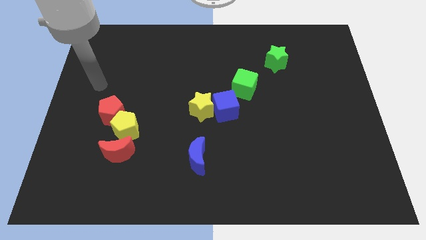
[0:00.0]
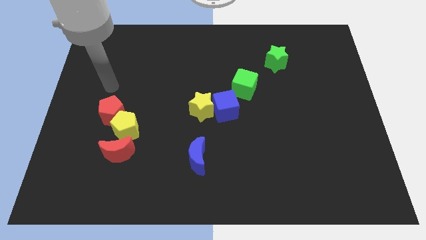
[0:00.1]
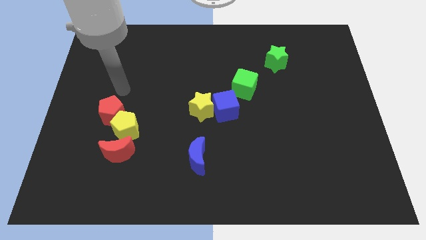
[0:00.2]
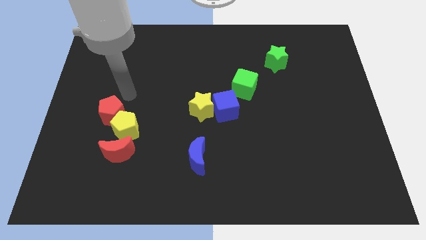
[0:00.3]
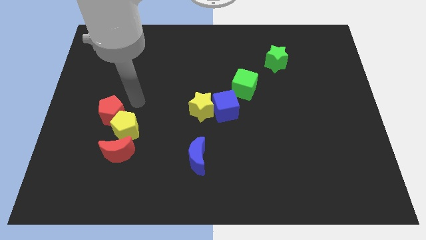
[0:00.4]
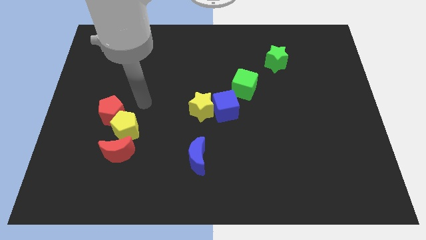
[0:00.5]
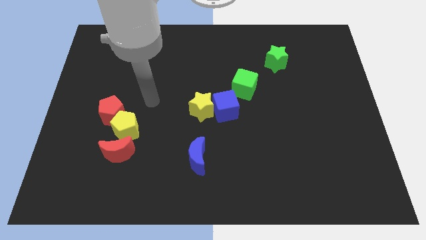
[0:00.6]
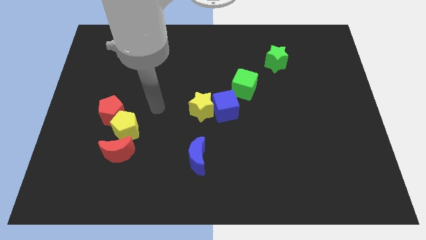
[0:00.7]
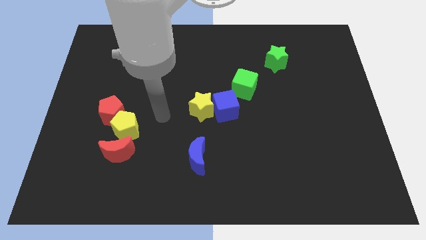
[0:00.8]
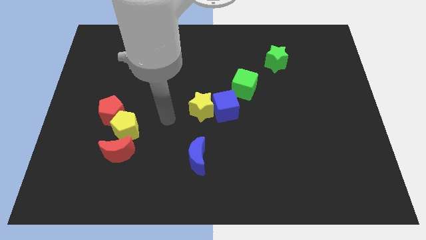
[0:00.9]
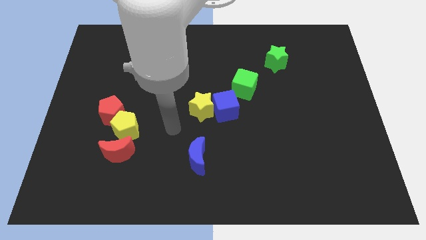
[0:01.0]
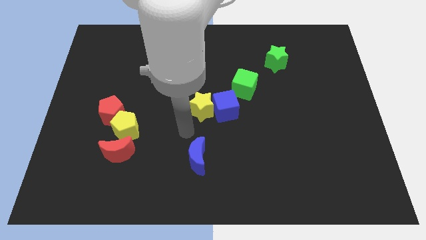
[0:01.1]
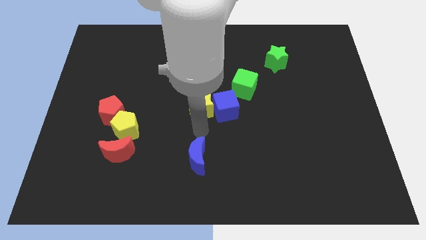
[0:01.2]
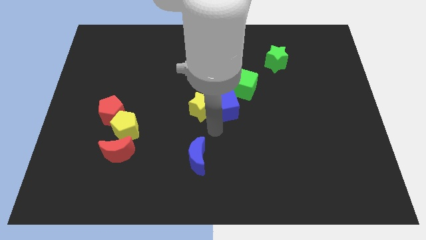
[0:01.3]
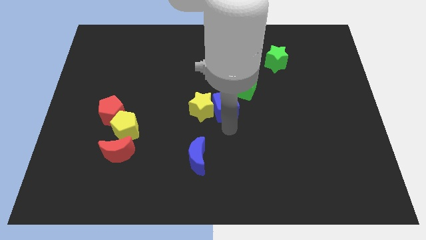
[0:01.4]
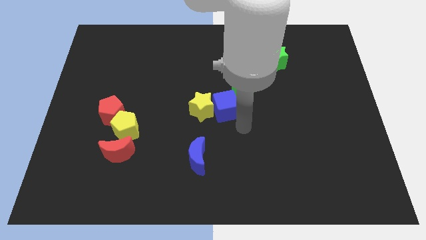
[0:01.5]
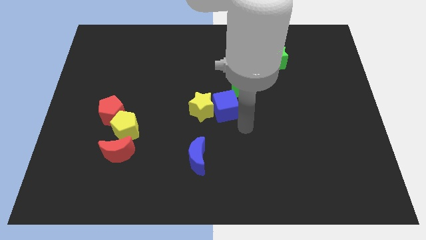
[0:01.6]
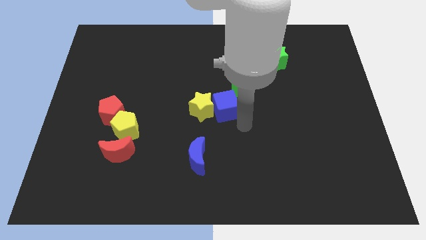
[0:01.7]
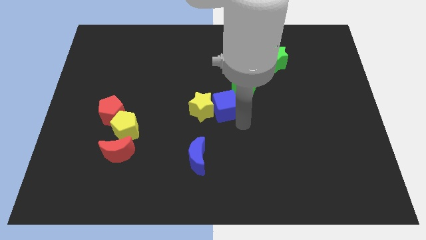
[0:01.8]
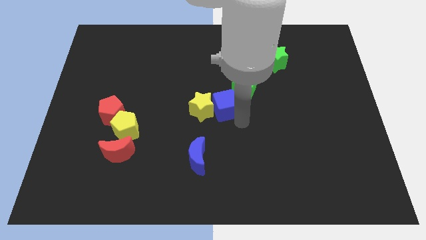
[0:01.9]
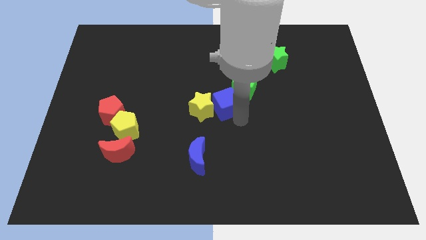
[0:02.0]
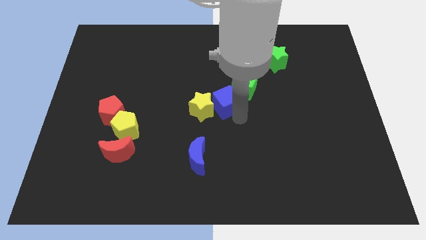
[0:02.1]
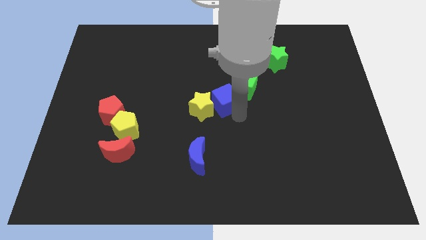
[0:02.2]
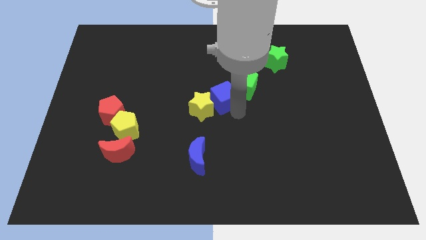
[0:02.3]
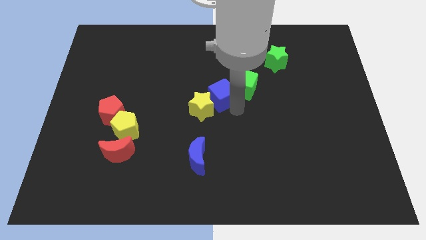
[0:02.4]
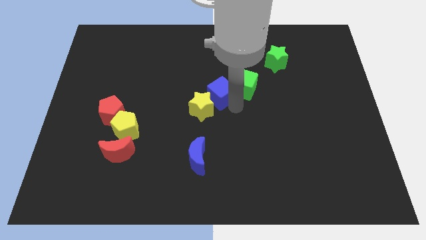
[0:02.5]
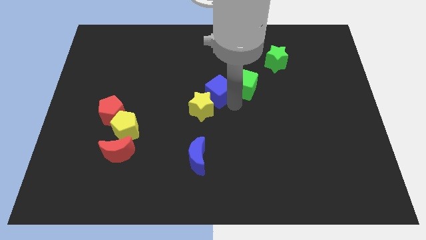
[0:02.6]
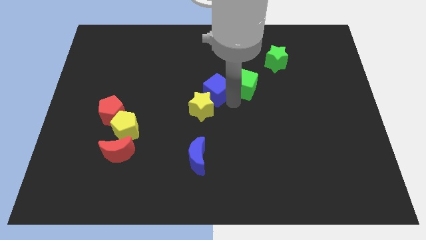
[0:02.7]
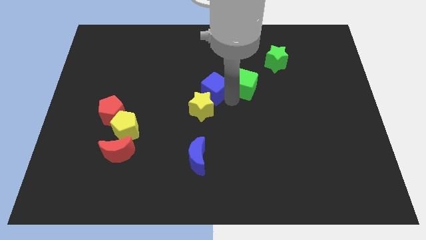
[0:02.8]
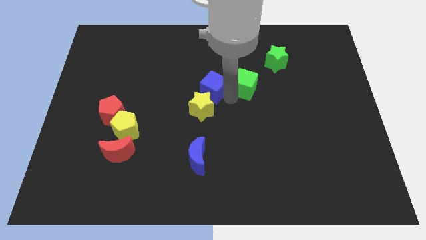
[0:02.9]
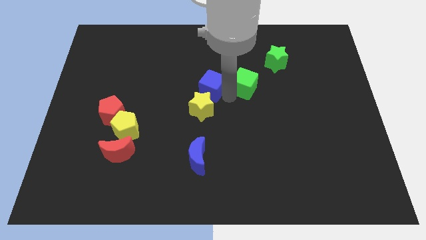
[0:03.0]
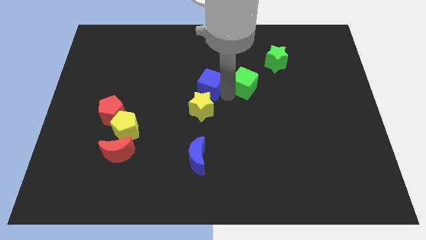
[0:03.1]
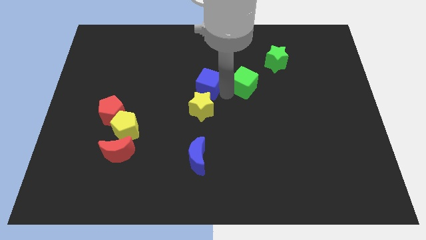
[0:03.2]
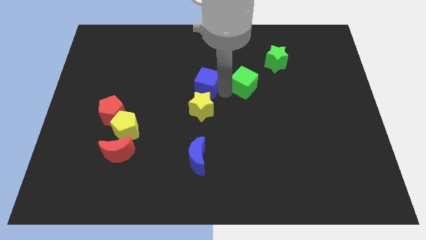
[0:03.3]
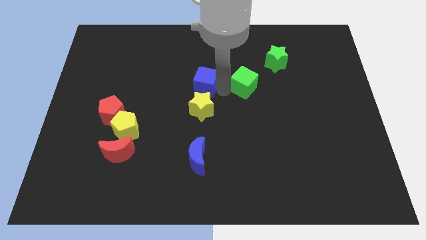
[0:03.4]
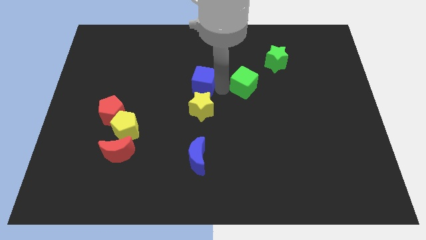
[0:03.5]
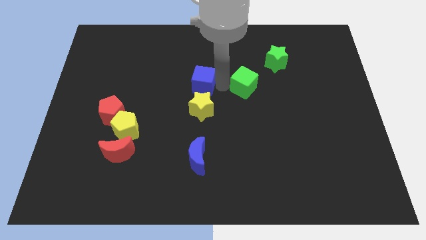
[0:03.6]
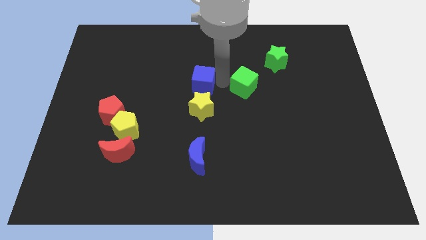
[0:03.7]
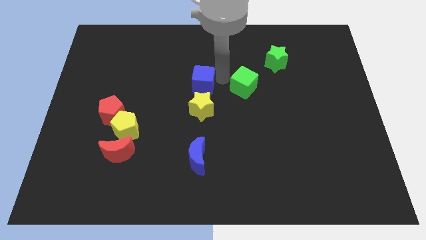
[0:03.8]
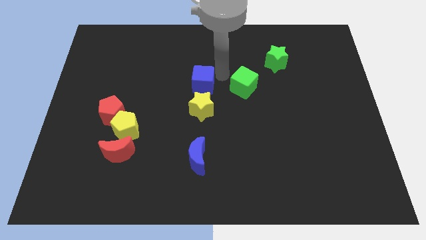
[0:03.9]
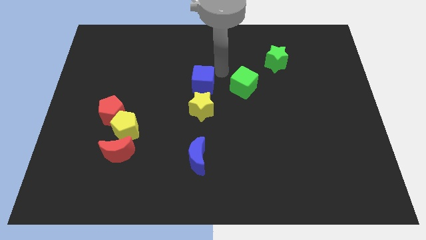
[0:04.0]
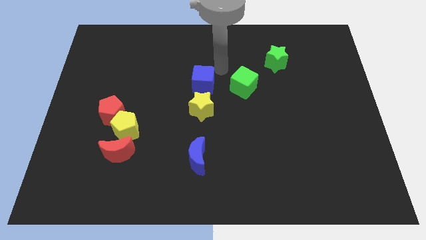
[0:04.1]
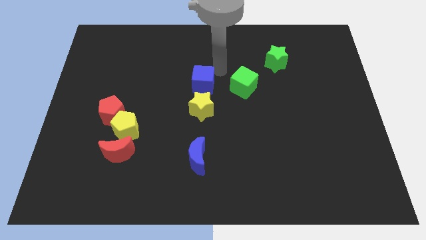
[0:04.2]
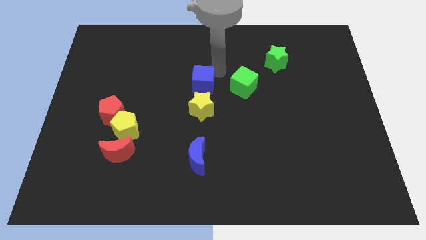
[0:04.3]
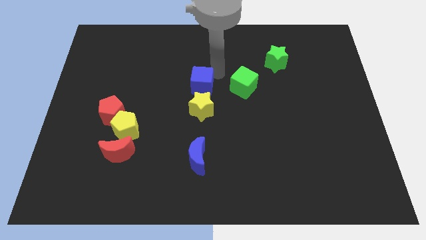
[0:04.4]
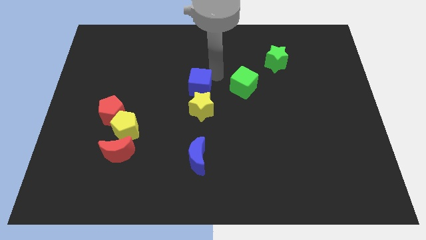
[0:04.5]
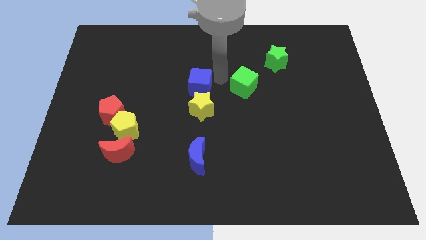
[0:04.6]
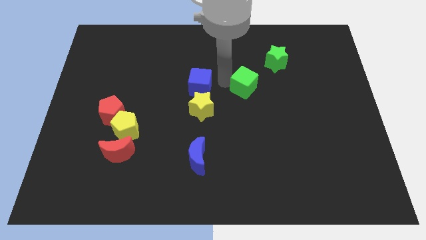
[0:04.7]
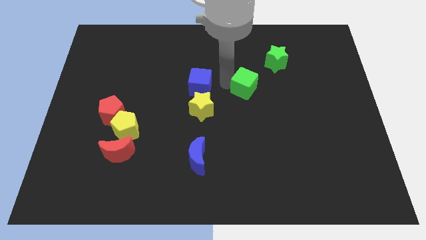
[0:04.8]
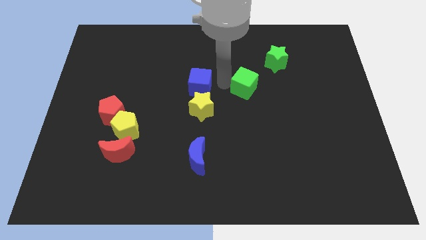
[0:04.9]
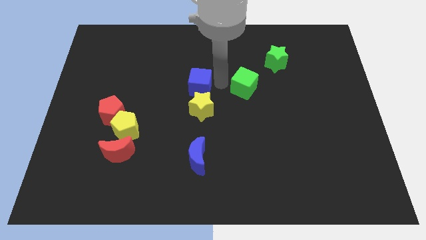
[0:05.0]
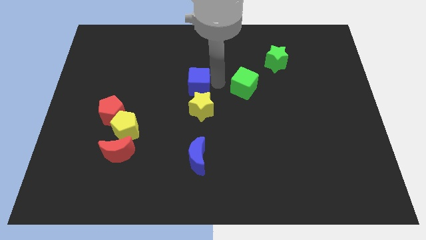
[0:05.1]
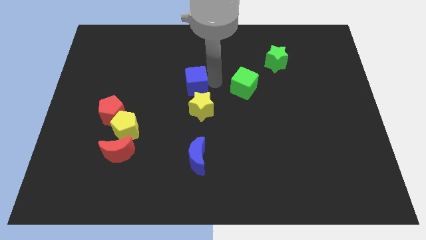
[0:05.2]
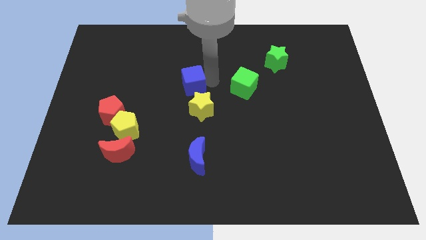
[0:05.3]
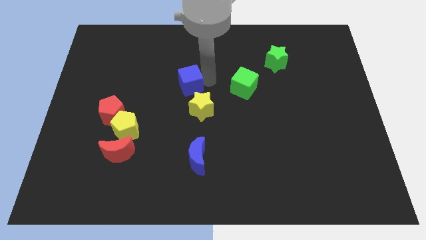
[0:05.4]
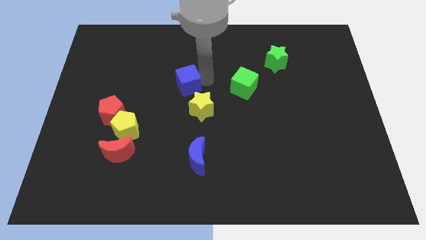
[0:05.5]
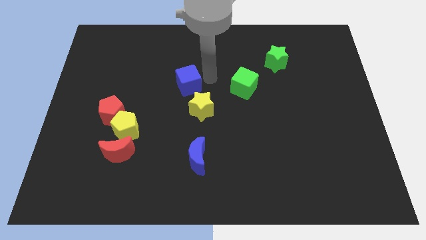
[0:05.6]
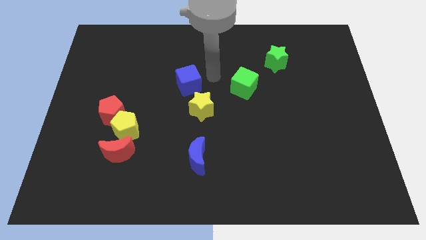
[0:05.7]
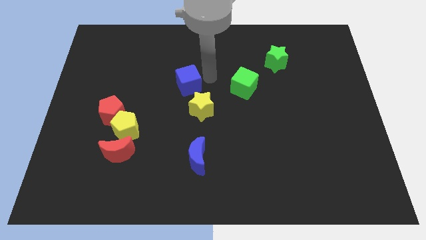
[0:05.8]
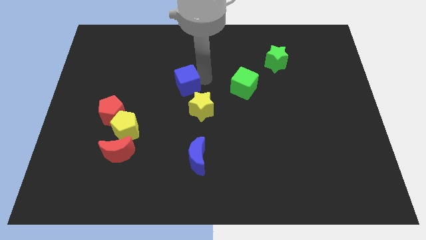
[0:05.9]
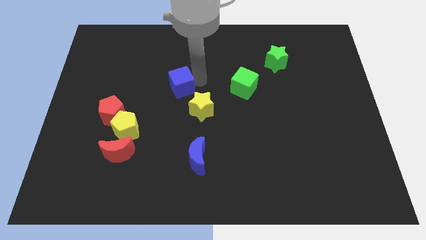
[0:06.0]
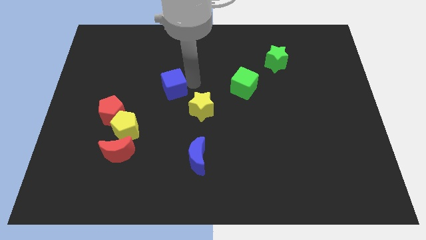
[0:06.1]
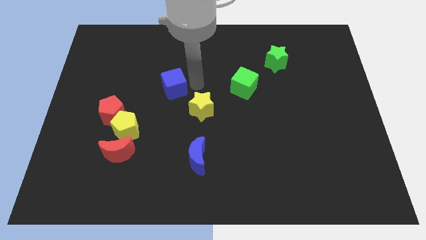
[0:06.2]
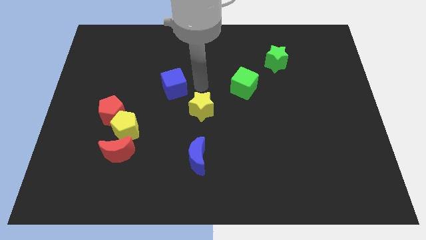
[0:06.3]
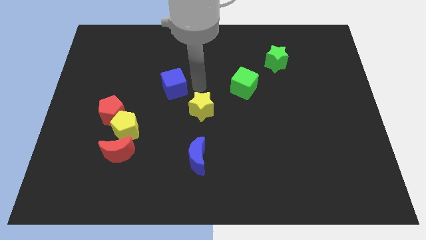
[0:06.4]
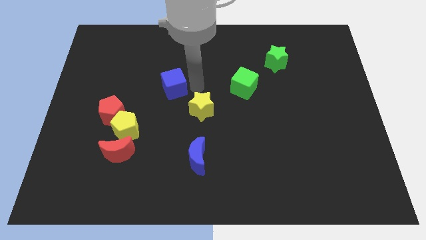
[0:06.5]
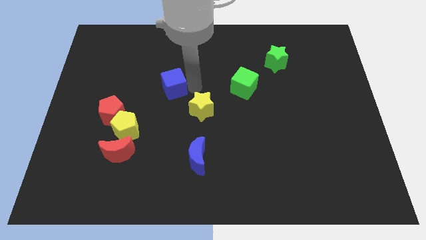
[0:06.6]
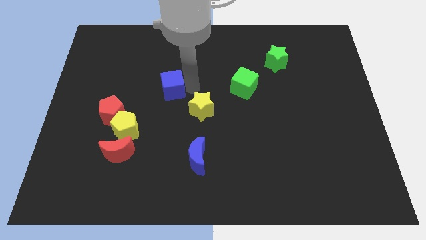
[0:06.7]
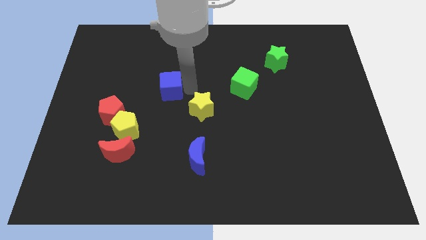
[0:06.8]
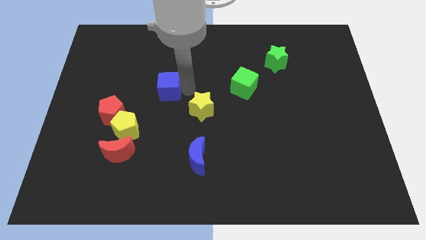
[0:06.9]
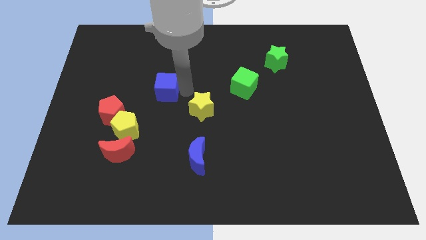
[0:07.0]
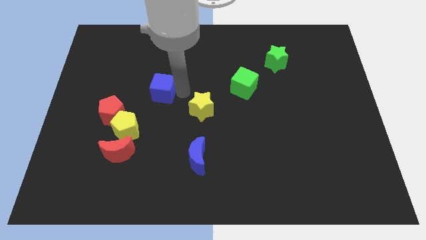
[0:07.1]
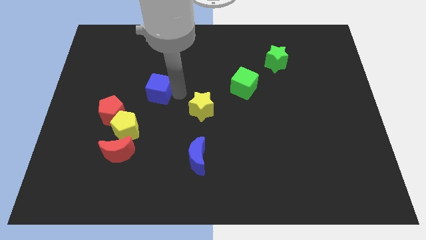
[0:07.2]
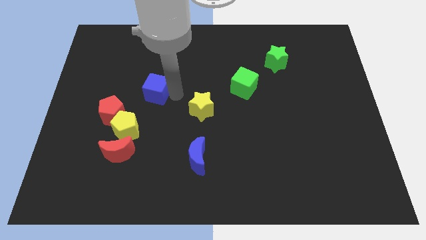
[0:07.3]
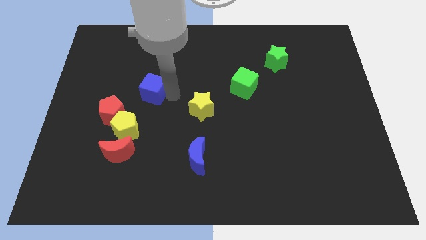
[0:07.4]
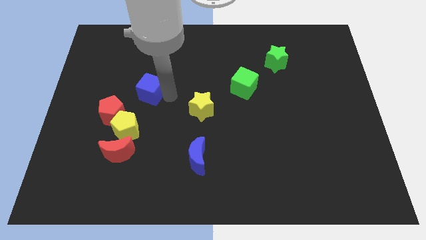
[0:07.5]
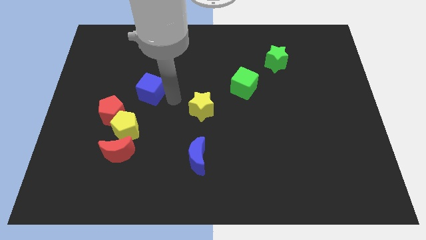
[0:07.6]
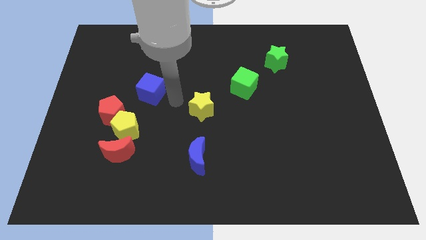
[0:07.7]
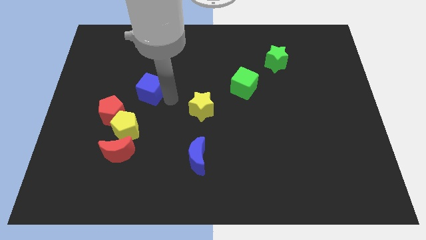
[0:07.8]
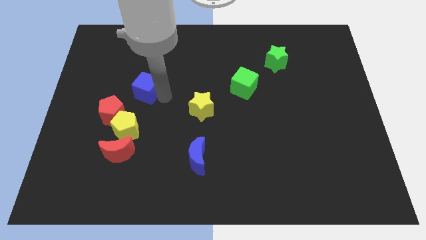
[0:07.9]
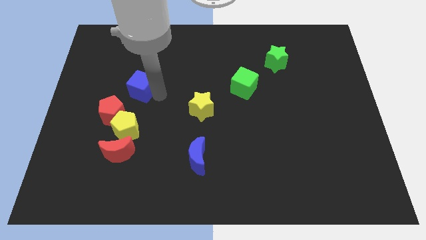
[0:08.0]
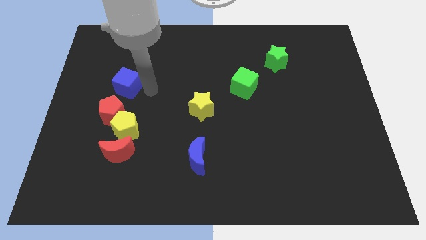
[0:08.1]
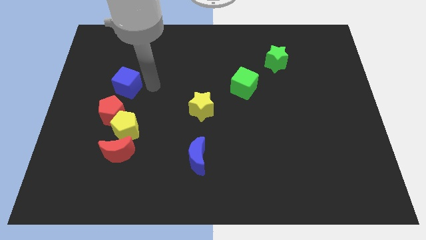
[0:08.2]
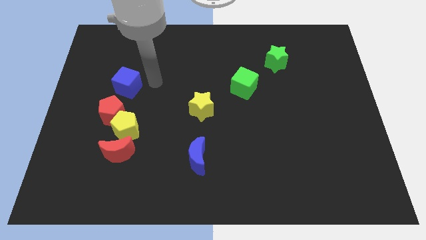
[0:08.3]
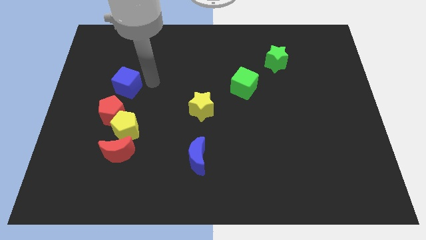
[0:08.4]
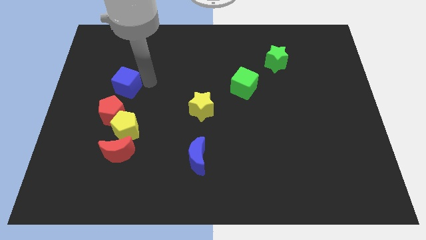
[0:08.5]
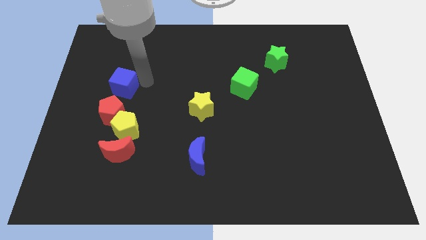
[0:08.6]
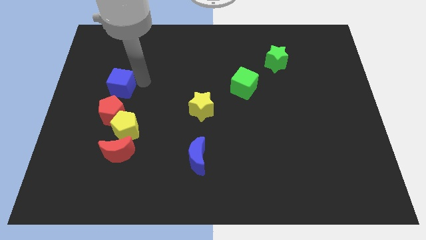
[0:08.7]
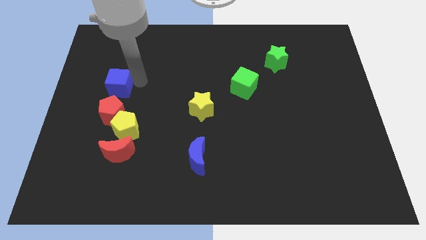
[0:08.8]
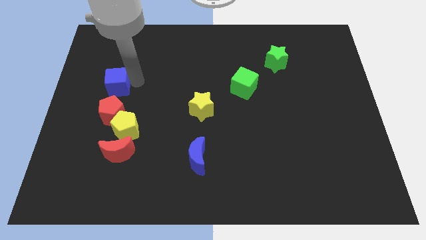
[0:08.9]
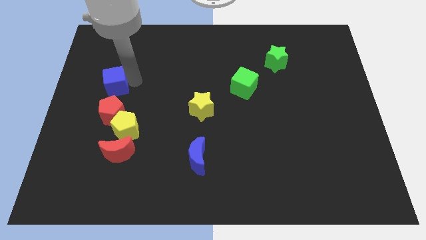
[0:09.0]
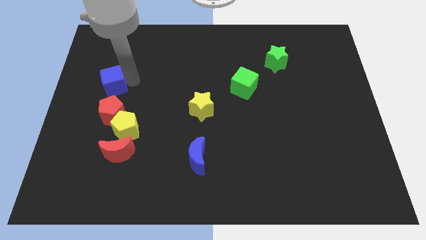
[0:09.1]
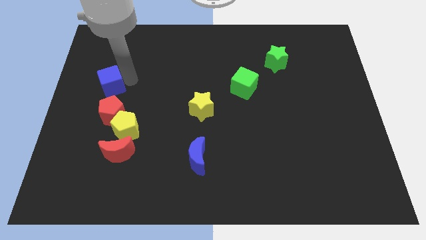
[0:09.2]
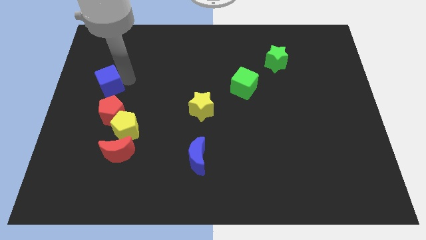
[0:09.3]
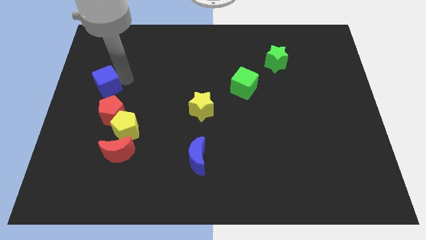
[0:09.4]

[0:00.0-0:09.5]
slide the blue cube to the left side of the board
